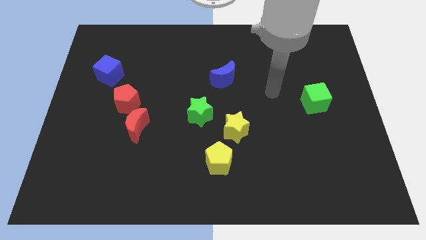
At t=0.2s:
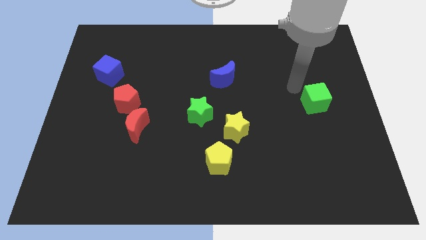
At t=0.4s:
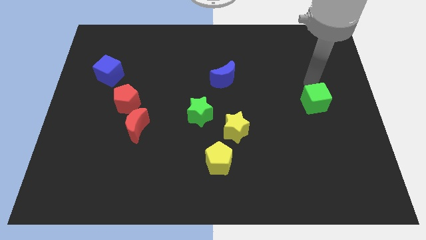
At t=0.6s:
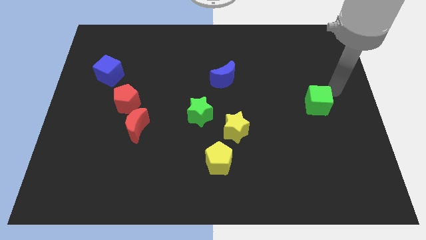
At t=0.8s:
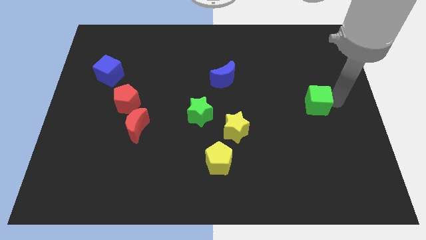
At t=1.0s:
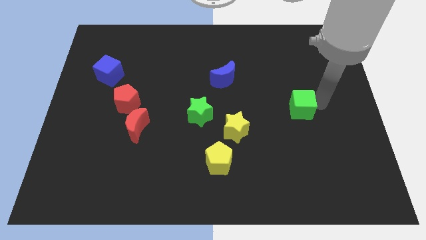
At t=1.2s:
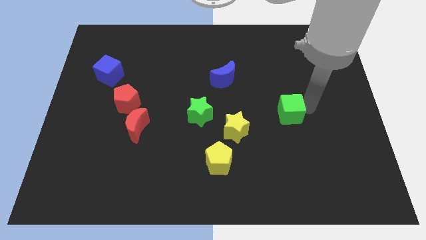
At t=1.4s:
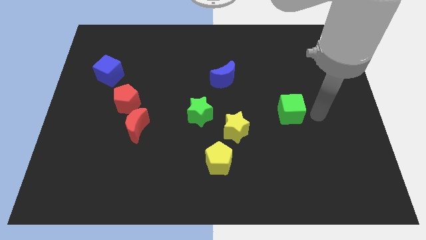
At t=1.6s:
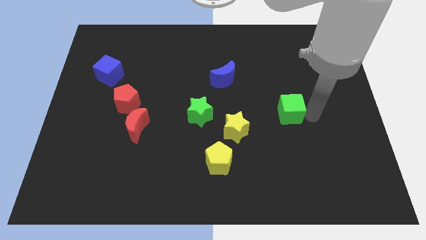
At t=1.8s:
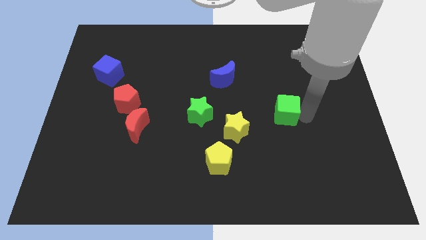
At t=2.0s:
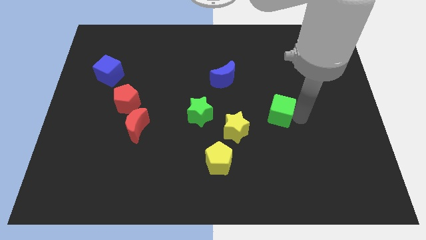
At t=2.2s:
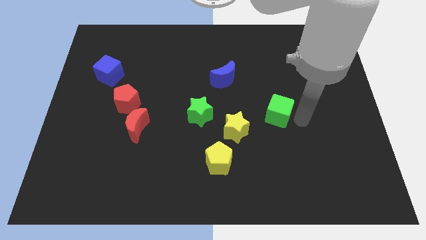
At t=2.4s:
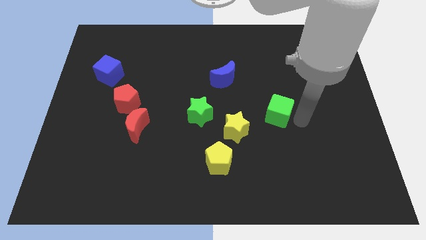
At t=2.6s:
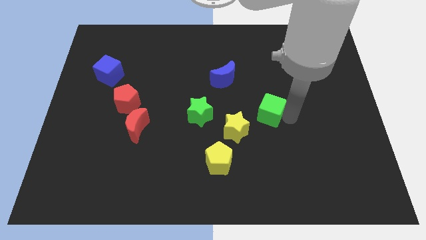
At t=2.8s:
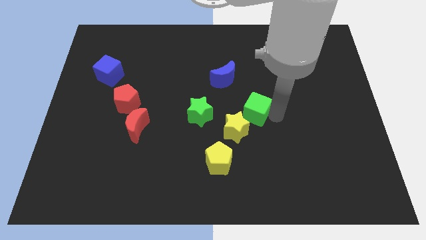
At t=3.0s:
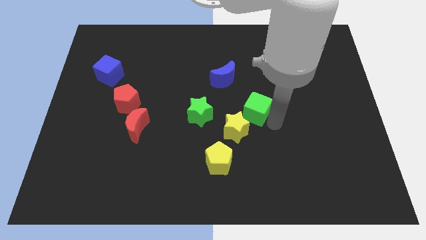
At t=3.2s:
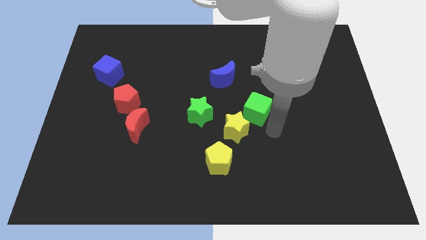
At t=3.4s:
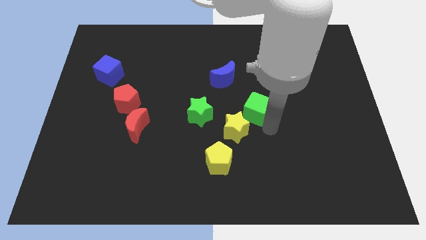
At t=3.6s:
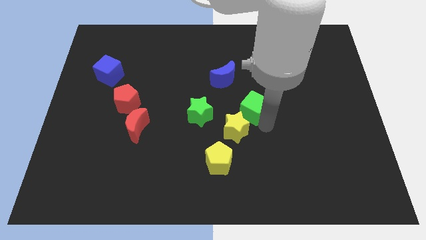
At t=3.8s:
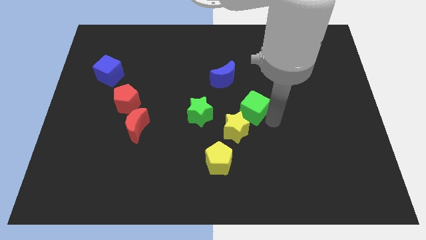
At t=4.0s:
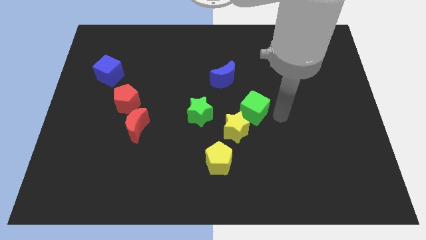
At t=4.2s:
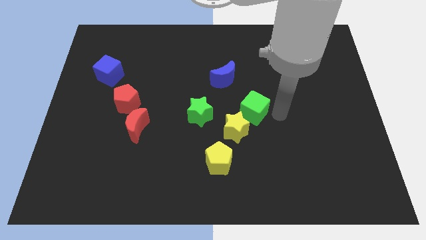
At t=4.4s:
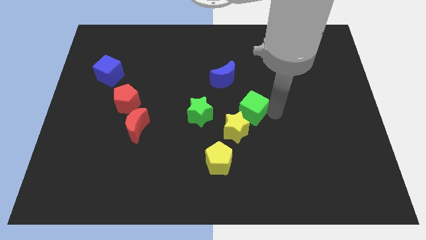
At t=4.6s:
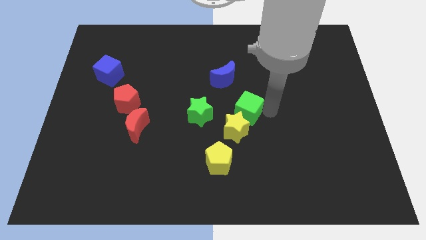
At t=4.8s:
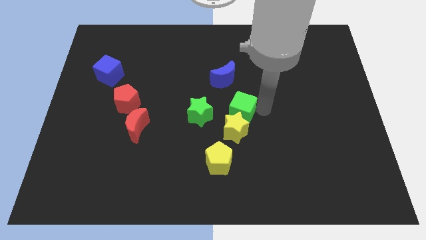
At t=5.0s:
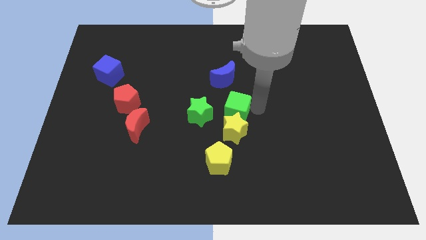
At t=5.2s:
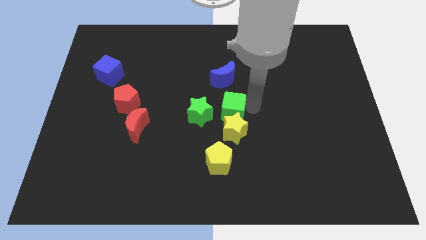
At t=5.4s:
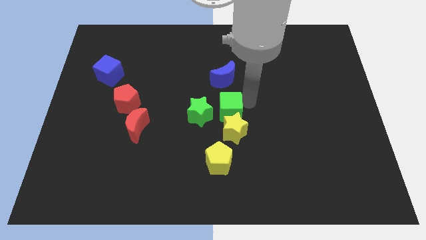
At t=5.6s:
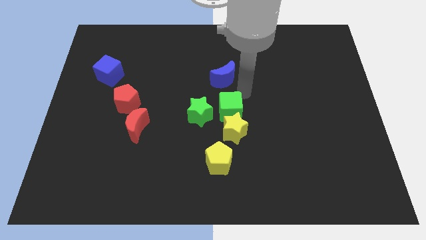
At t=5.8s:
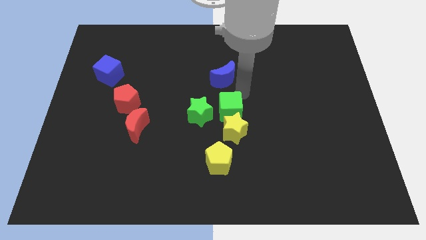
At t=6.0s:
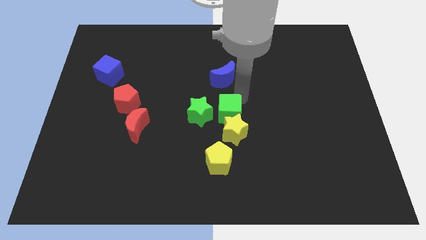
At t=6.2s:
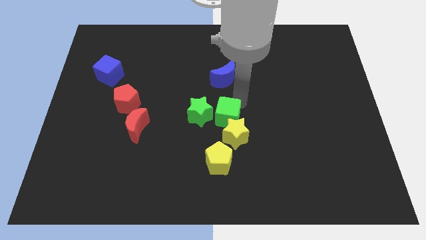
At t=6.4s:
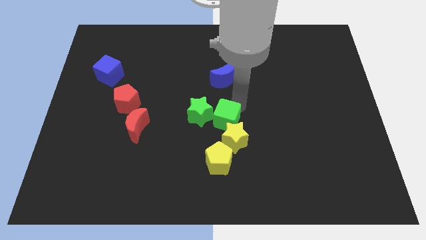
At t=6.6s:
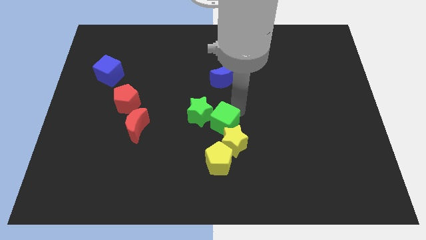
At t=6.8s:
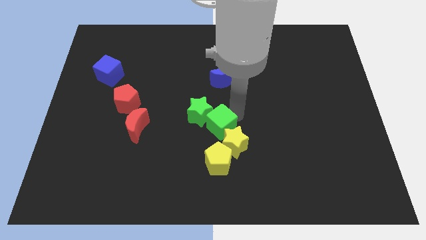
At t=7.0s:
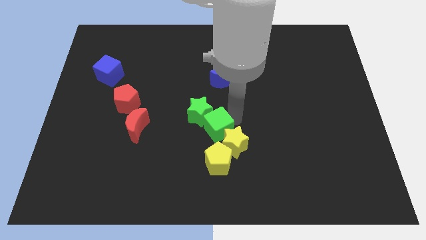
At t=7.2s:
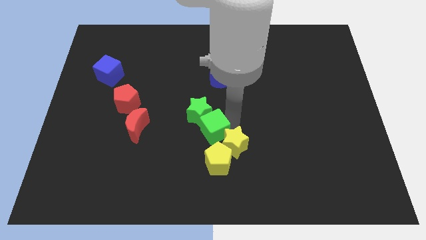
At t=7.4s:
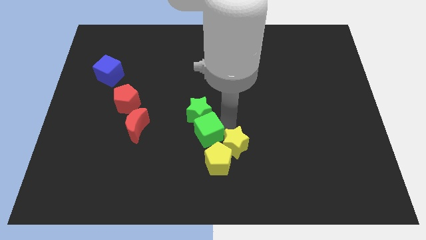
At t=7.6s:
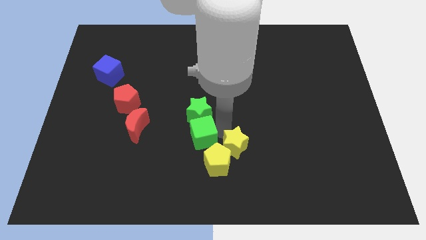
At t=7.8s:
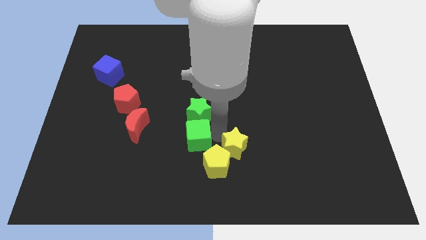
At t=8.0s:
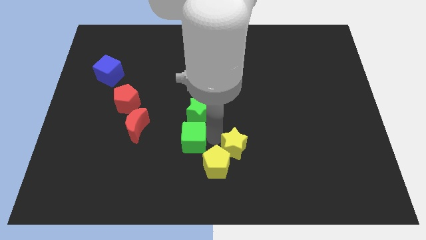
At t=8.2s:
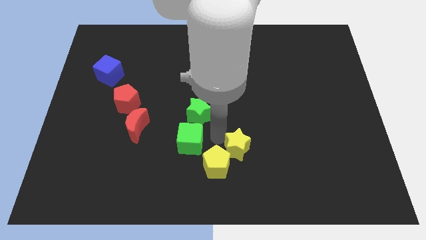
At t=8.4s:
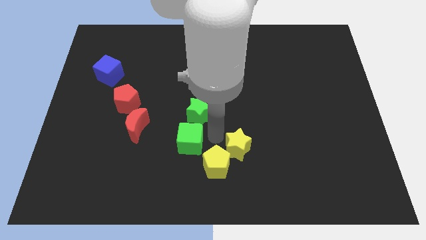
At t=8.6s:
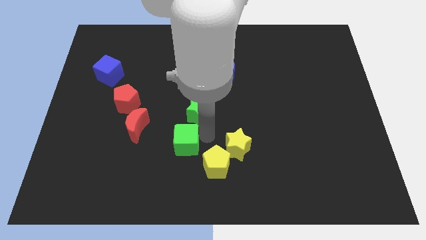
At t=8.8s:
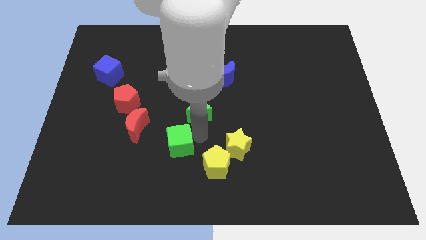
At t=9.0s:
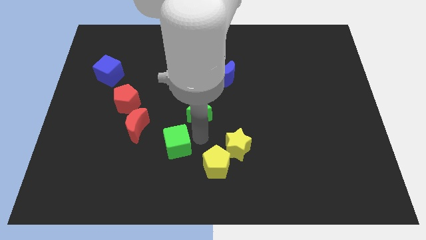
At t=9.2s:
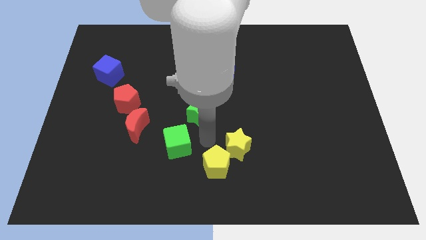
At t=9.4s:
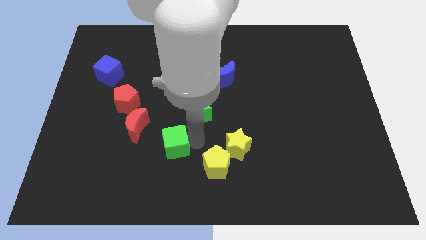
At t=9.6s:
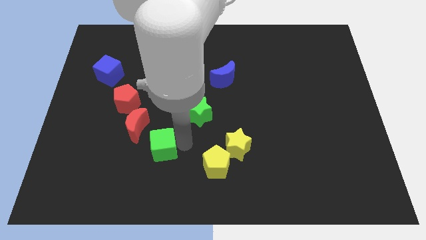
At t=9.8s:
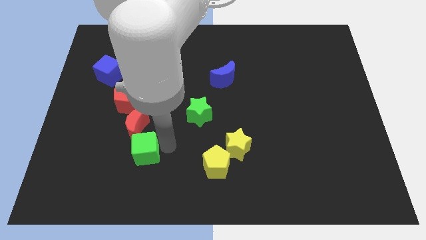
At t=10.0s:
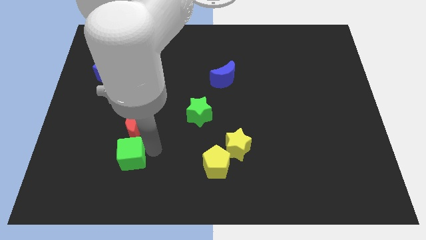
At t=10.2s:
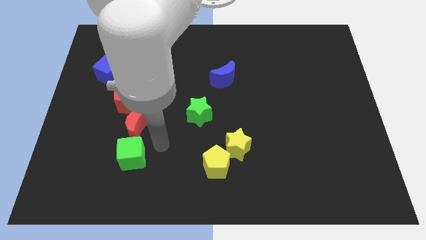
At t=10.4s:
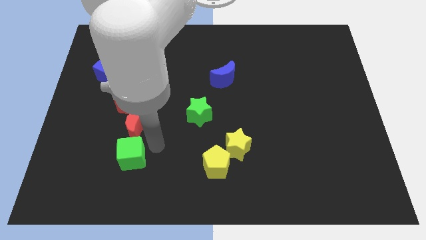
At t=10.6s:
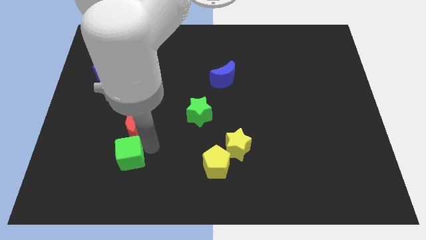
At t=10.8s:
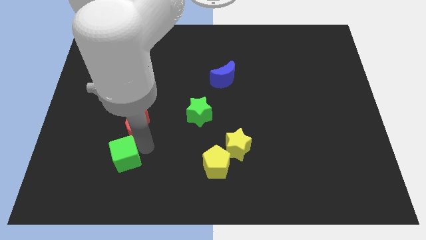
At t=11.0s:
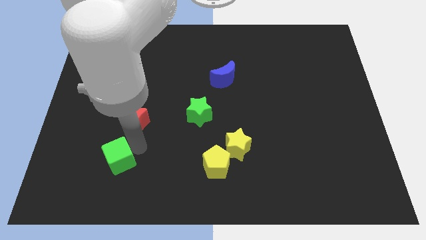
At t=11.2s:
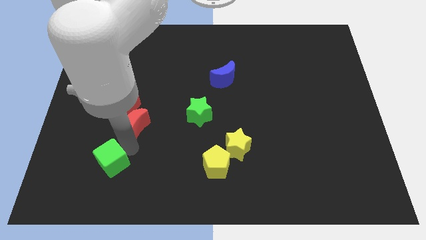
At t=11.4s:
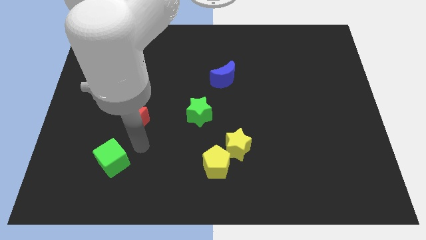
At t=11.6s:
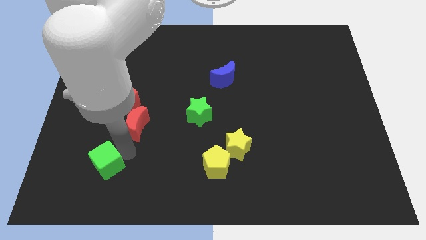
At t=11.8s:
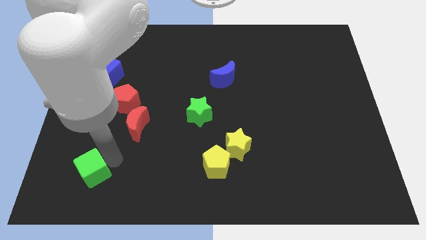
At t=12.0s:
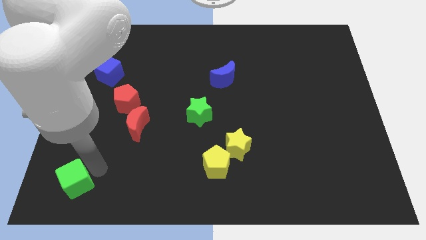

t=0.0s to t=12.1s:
put the green cube to the bottom left corner

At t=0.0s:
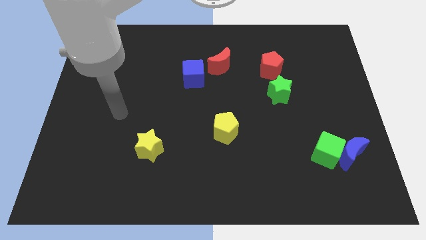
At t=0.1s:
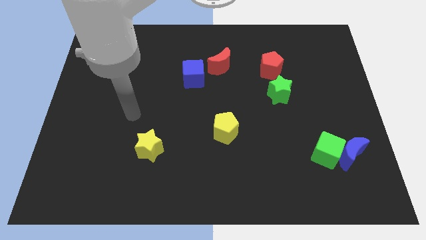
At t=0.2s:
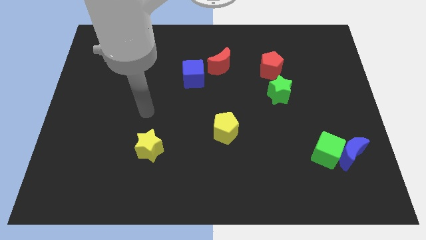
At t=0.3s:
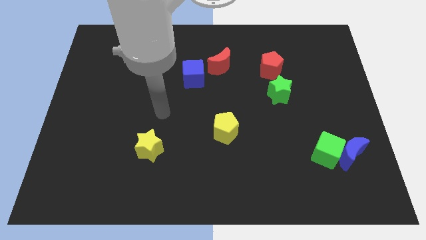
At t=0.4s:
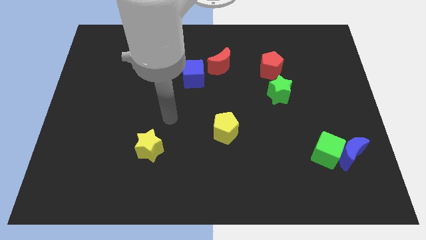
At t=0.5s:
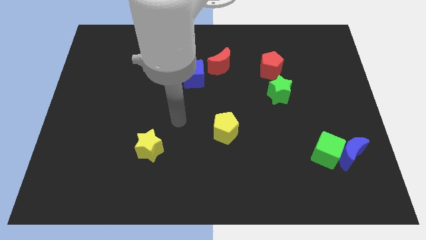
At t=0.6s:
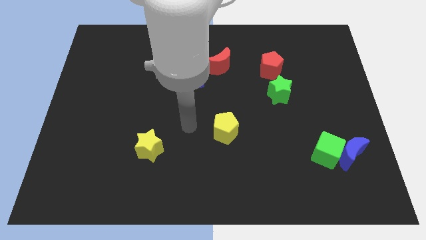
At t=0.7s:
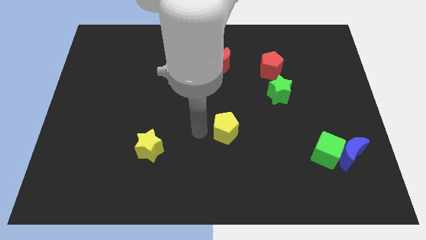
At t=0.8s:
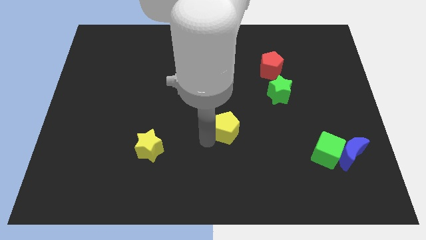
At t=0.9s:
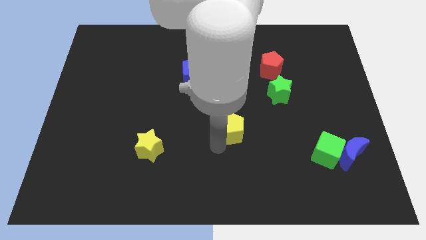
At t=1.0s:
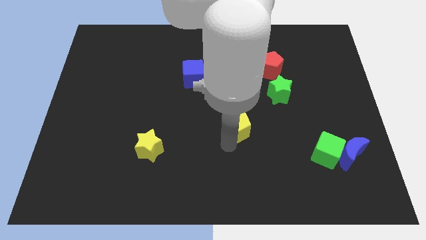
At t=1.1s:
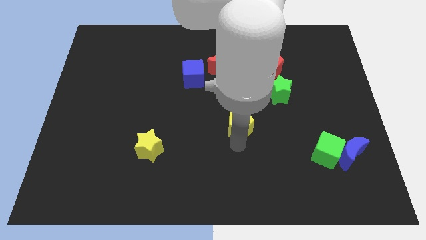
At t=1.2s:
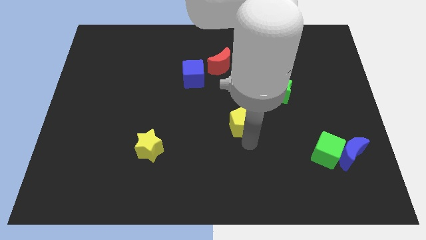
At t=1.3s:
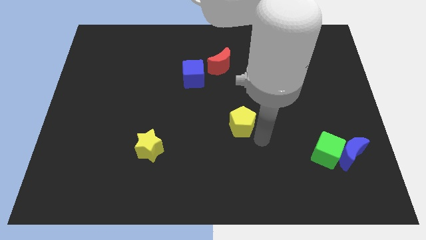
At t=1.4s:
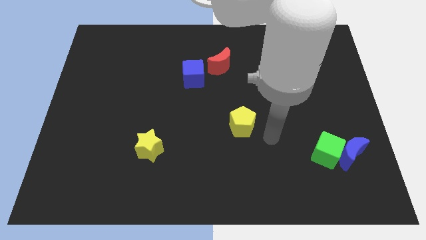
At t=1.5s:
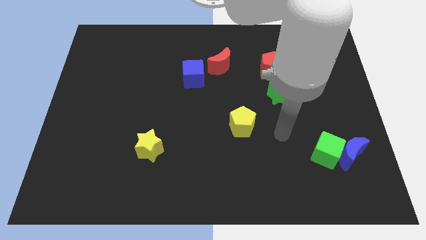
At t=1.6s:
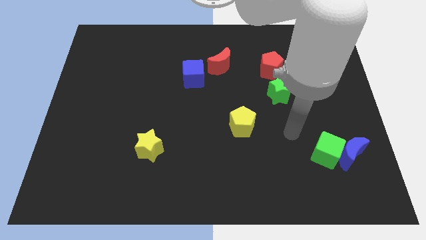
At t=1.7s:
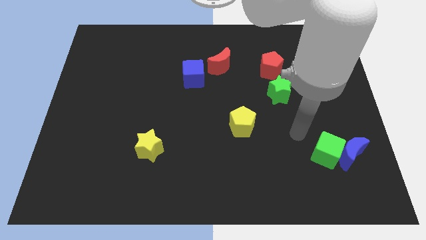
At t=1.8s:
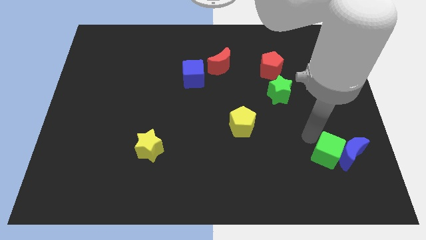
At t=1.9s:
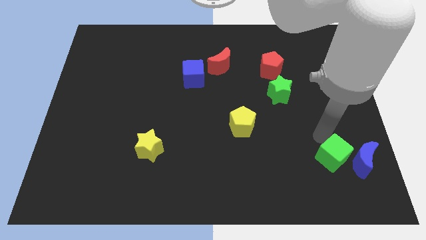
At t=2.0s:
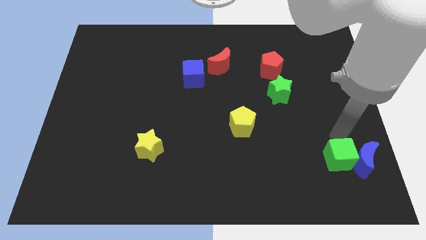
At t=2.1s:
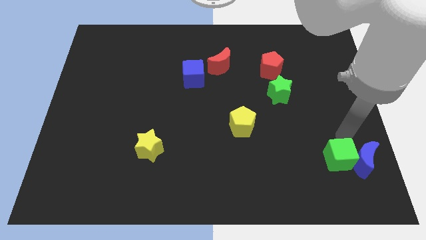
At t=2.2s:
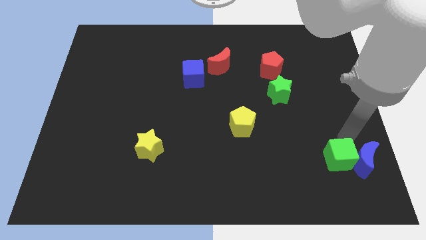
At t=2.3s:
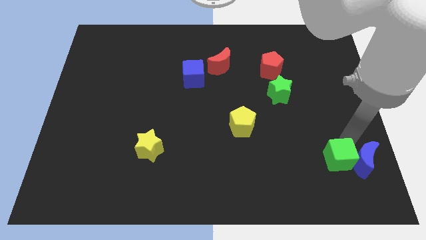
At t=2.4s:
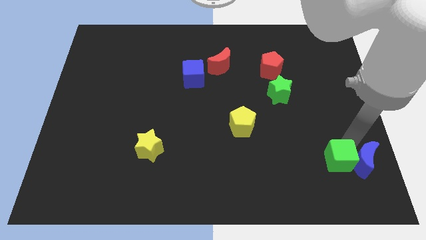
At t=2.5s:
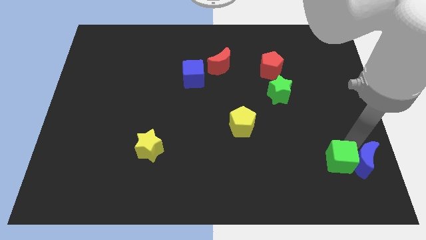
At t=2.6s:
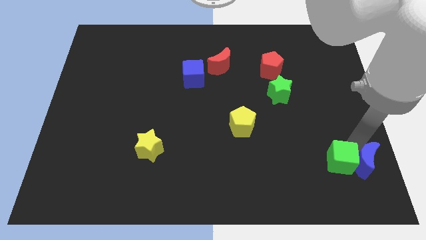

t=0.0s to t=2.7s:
put the blue moon to the lower right corner
